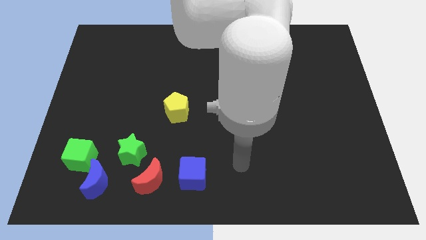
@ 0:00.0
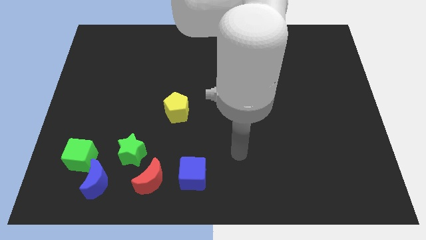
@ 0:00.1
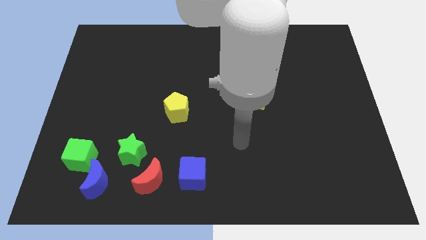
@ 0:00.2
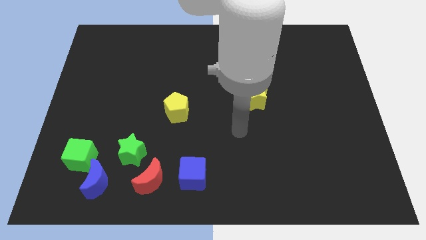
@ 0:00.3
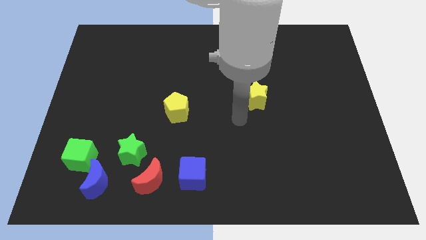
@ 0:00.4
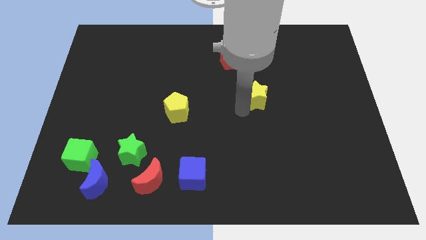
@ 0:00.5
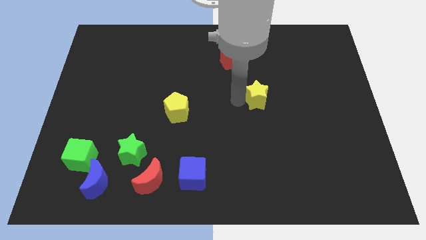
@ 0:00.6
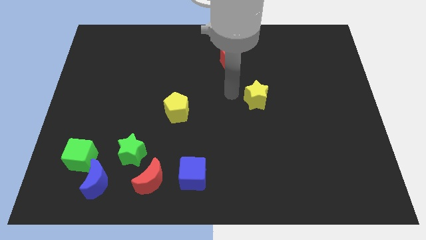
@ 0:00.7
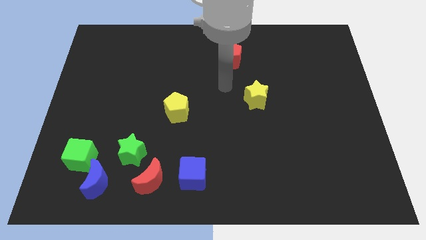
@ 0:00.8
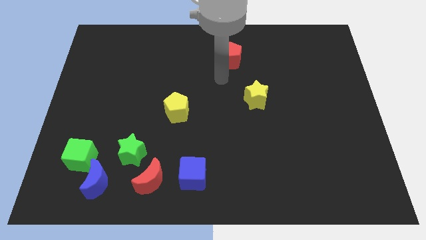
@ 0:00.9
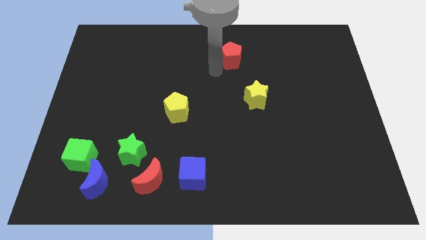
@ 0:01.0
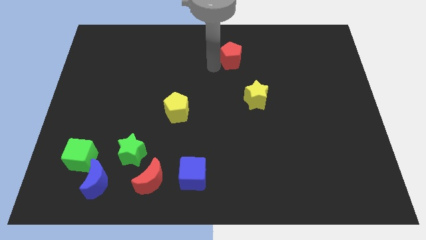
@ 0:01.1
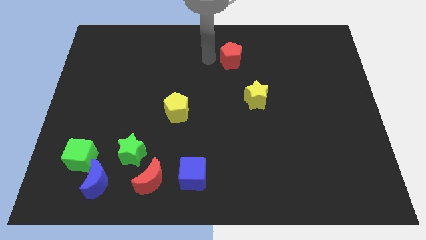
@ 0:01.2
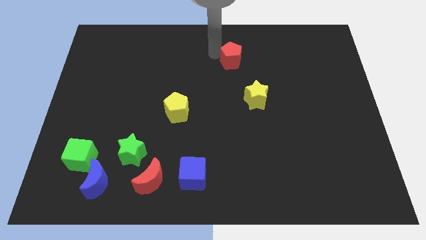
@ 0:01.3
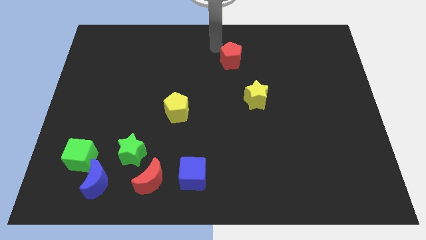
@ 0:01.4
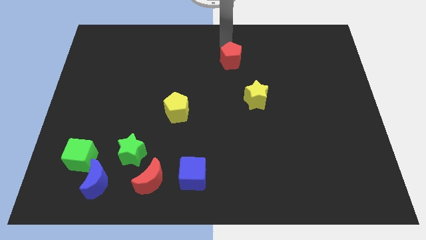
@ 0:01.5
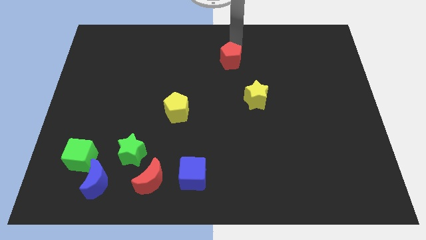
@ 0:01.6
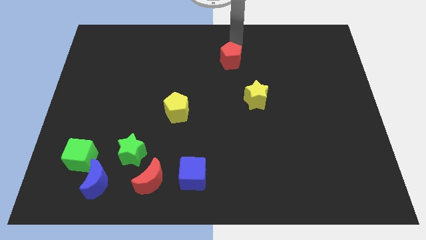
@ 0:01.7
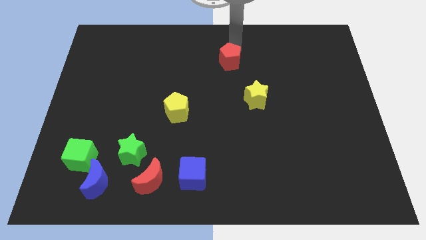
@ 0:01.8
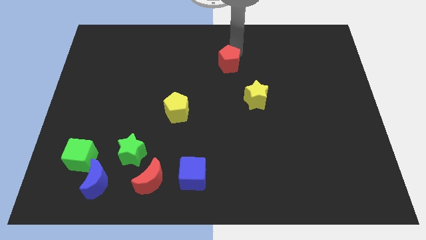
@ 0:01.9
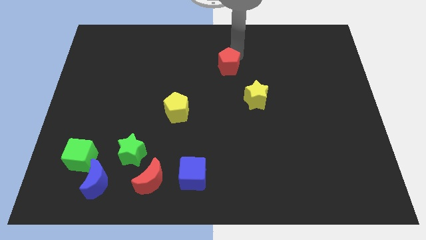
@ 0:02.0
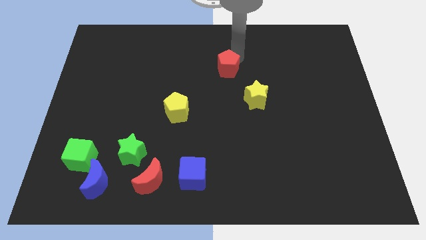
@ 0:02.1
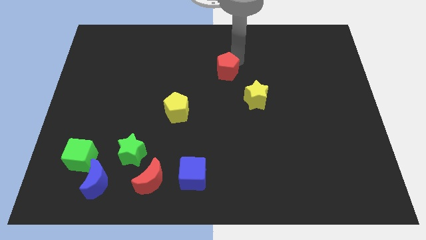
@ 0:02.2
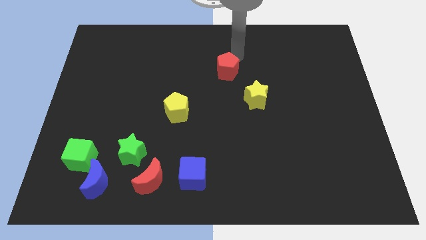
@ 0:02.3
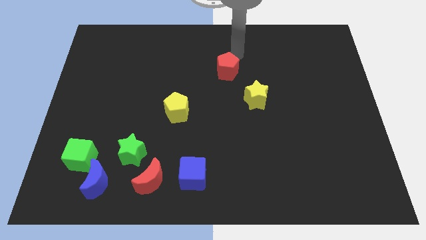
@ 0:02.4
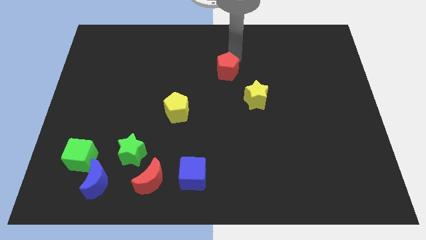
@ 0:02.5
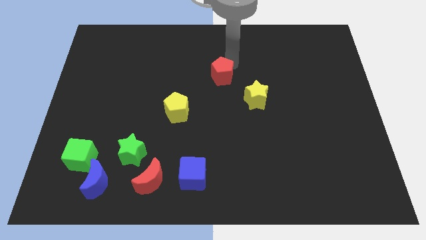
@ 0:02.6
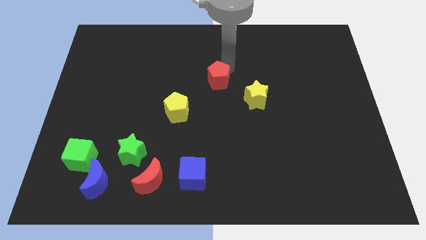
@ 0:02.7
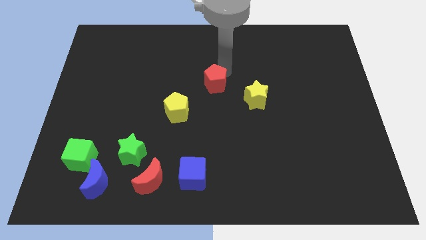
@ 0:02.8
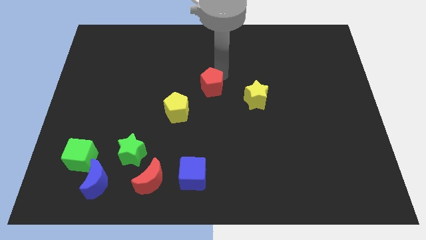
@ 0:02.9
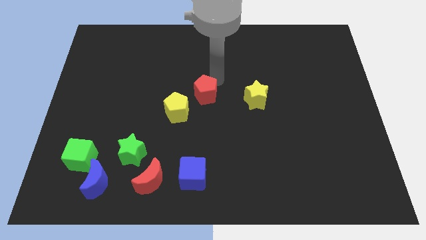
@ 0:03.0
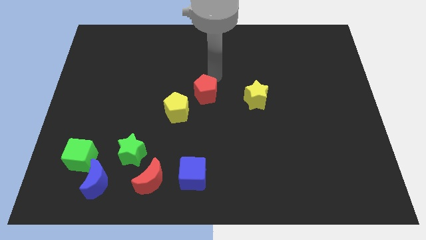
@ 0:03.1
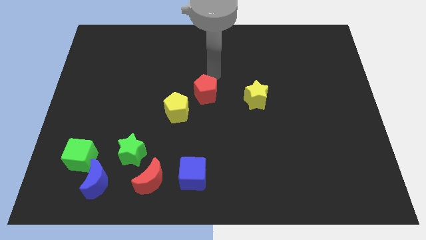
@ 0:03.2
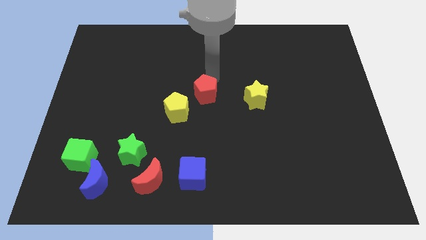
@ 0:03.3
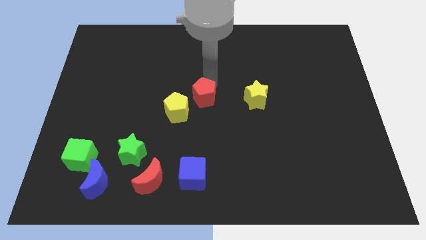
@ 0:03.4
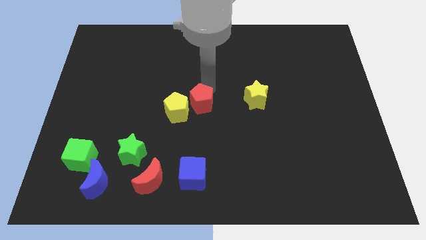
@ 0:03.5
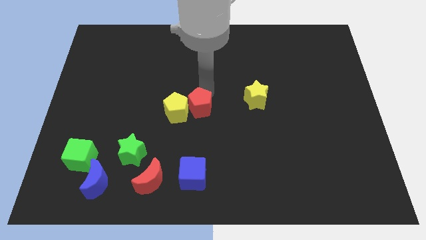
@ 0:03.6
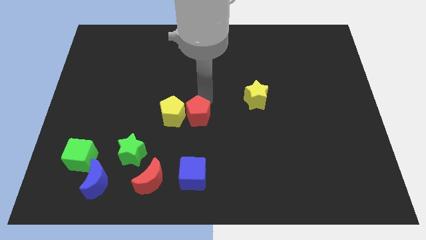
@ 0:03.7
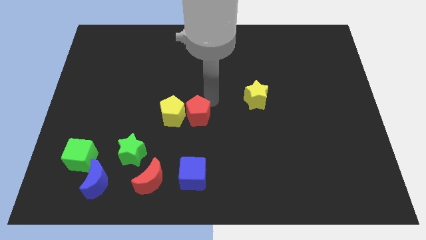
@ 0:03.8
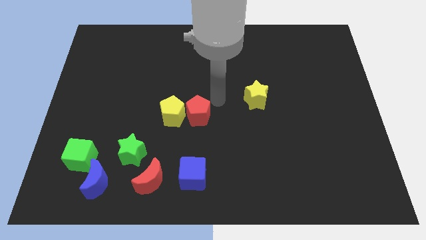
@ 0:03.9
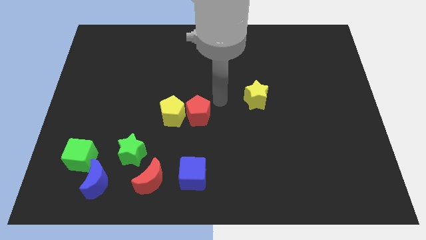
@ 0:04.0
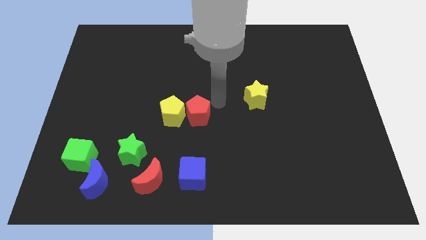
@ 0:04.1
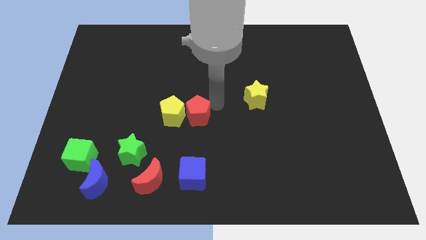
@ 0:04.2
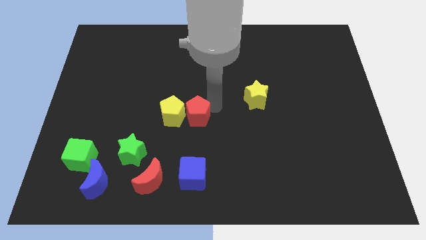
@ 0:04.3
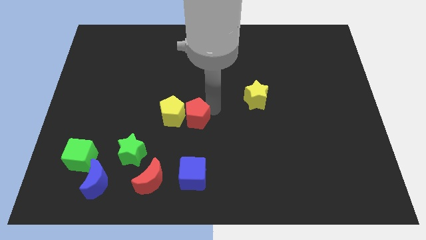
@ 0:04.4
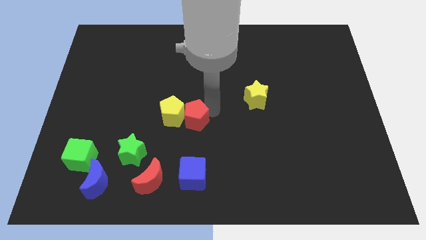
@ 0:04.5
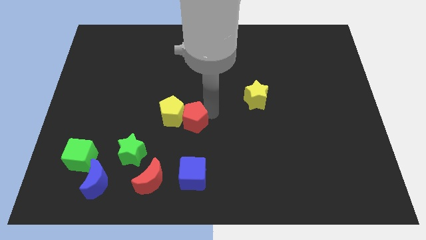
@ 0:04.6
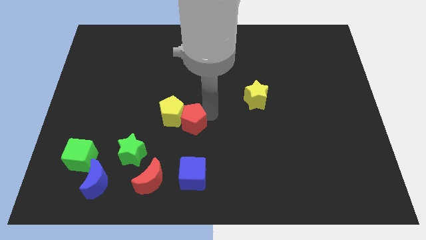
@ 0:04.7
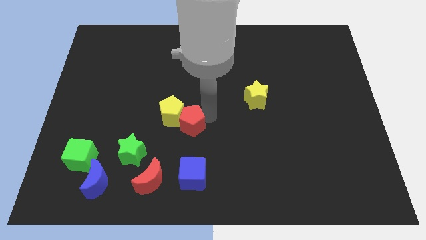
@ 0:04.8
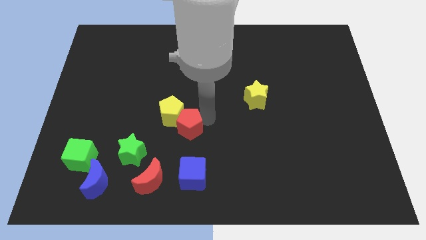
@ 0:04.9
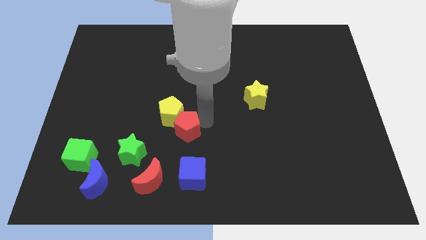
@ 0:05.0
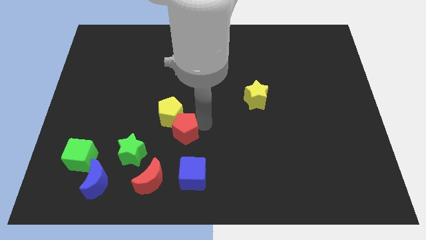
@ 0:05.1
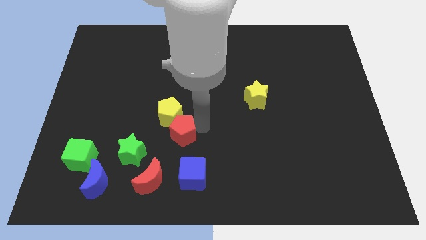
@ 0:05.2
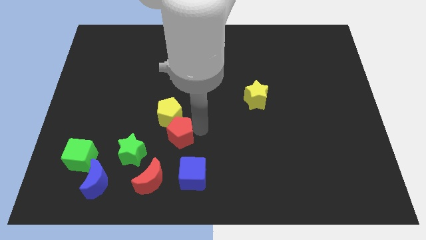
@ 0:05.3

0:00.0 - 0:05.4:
push the red pentagon to the top right side of the green star

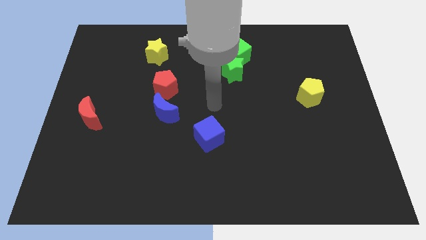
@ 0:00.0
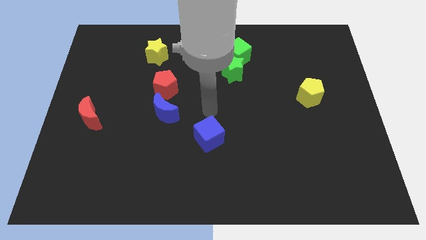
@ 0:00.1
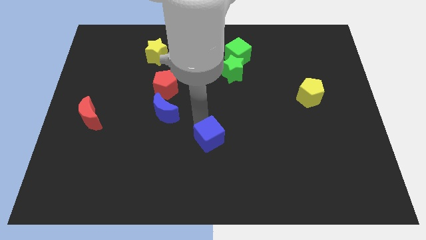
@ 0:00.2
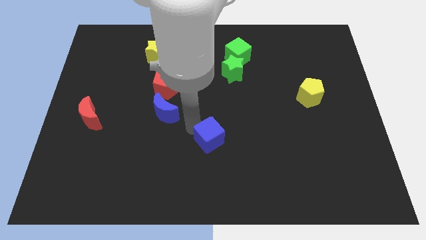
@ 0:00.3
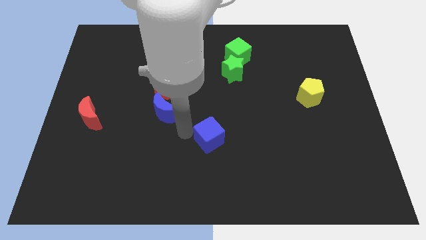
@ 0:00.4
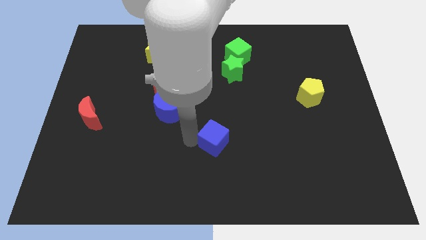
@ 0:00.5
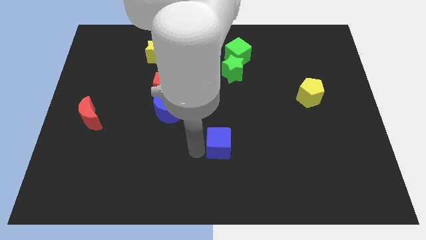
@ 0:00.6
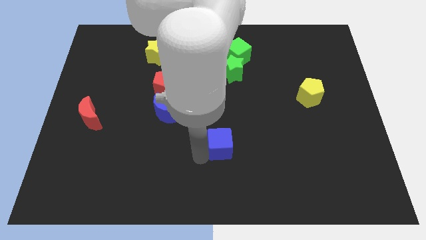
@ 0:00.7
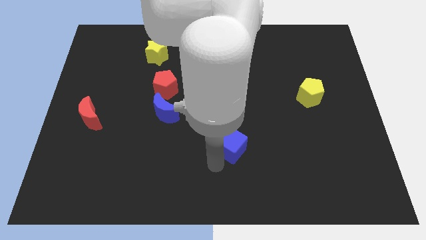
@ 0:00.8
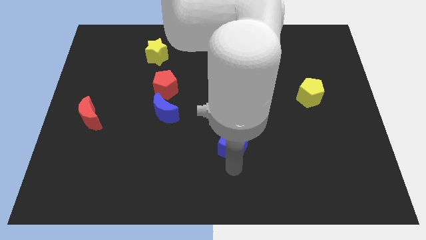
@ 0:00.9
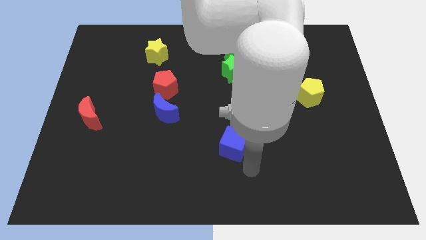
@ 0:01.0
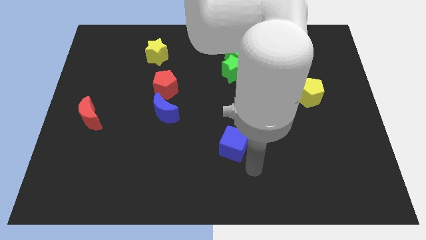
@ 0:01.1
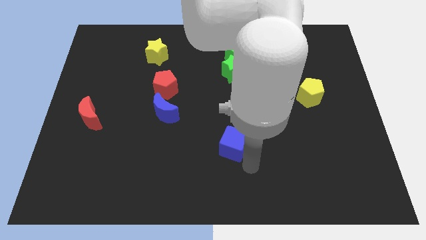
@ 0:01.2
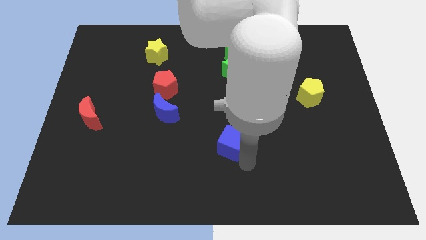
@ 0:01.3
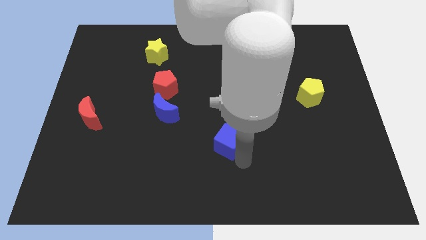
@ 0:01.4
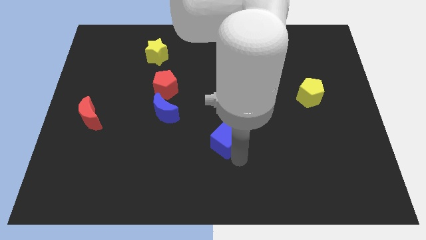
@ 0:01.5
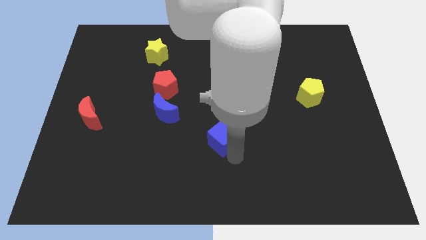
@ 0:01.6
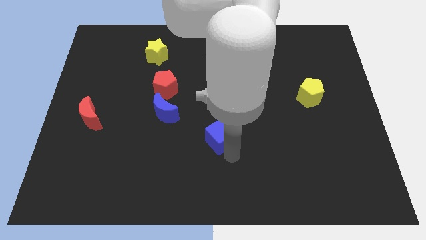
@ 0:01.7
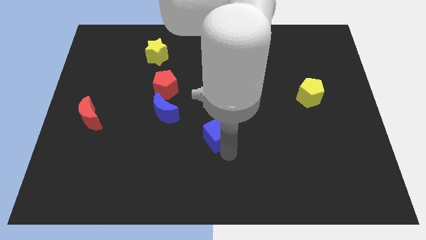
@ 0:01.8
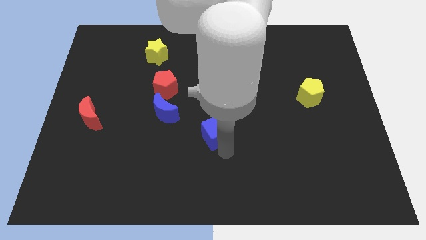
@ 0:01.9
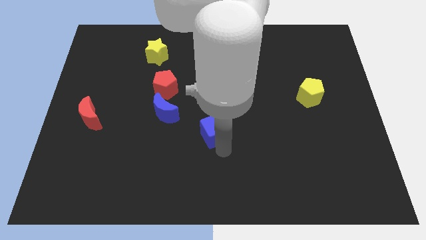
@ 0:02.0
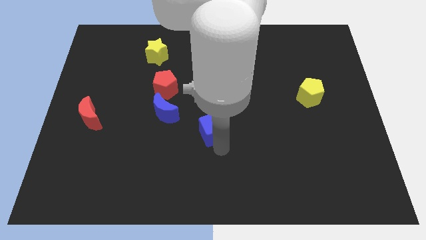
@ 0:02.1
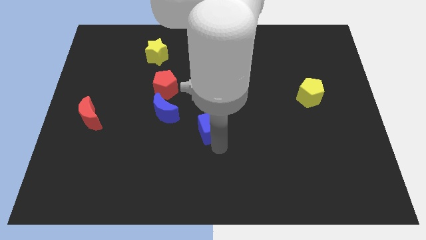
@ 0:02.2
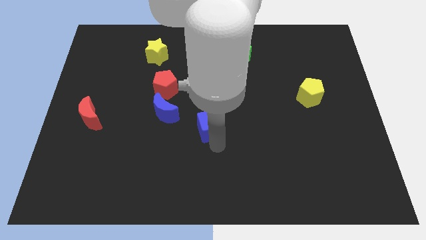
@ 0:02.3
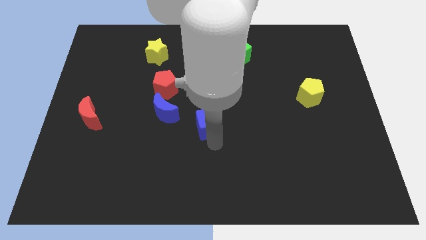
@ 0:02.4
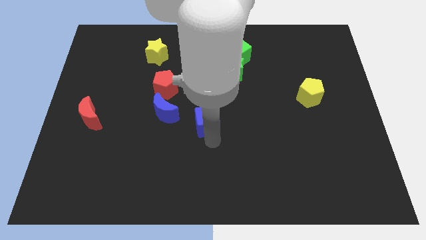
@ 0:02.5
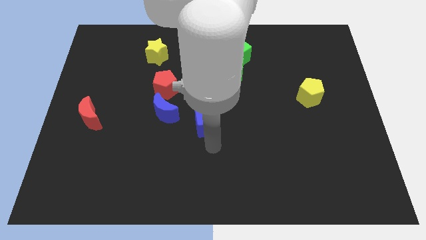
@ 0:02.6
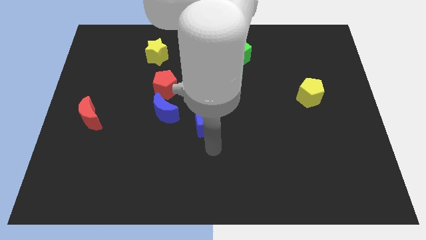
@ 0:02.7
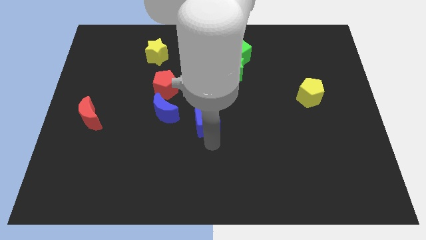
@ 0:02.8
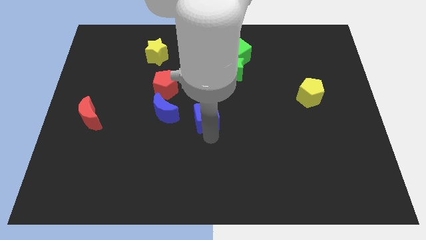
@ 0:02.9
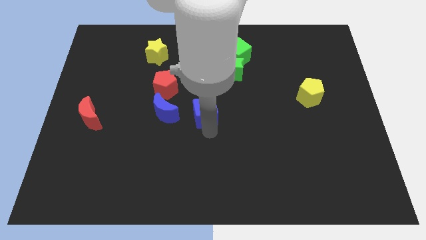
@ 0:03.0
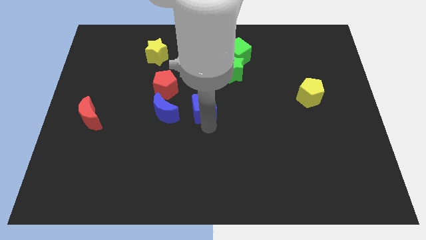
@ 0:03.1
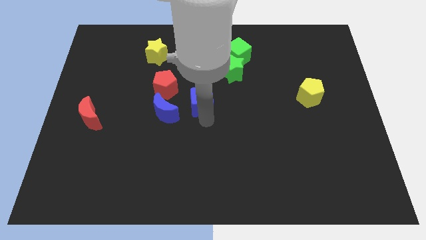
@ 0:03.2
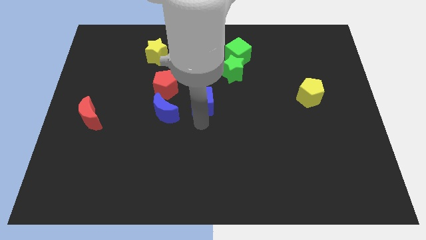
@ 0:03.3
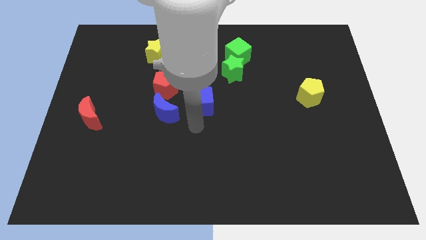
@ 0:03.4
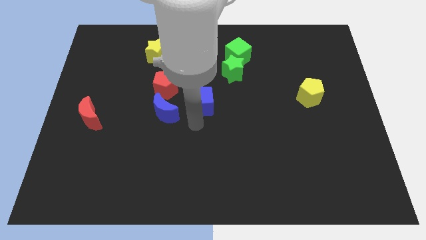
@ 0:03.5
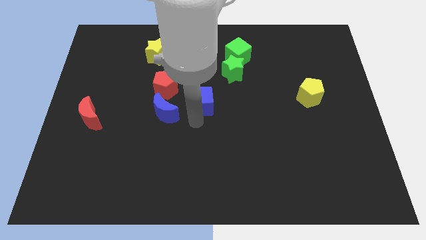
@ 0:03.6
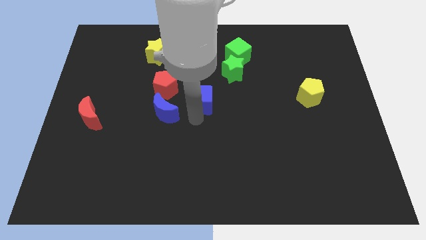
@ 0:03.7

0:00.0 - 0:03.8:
push the blue cube to the right side of the red pentagon
